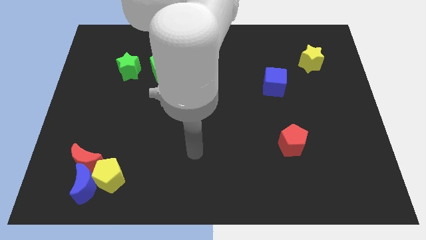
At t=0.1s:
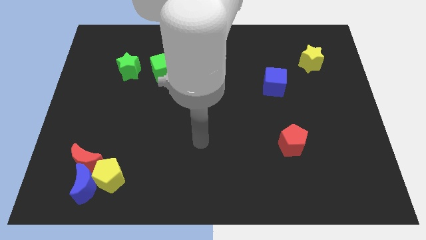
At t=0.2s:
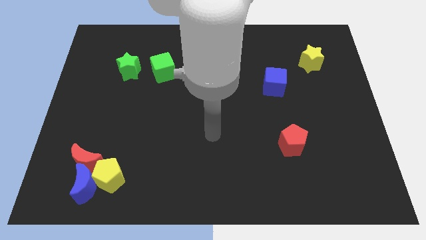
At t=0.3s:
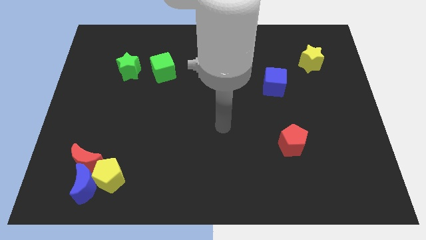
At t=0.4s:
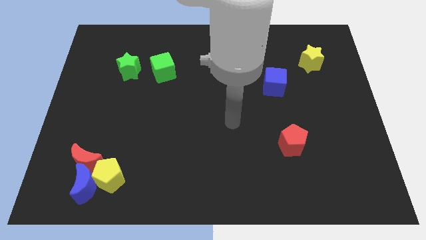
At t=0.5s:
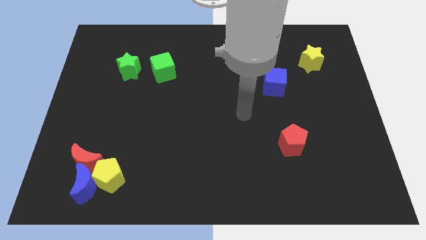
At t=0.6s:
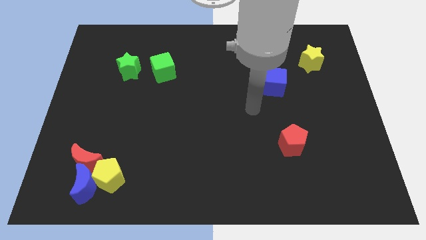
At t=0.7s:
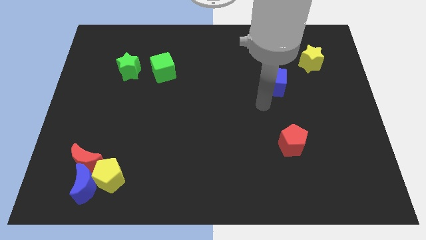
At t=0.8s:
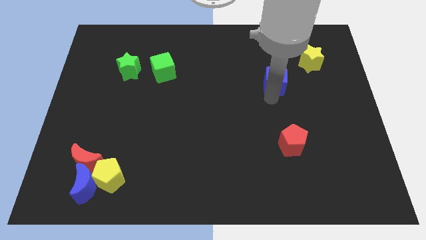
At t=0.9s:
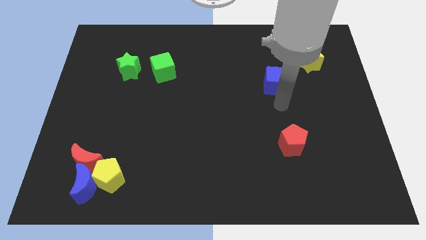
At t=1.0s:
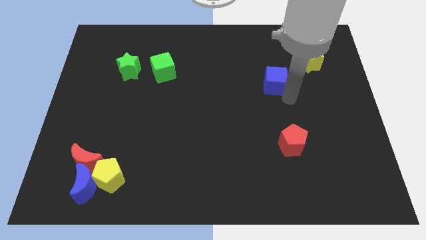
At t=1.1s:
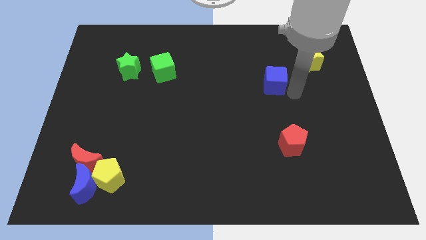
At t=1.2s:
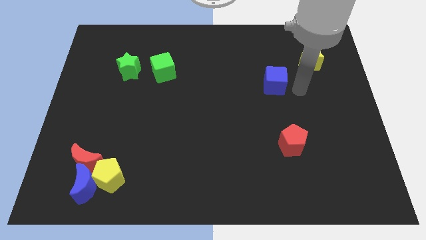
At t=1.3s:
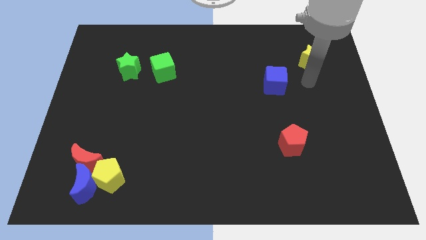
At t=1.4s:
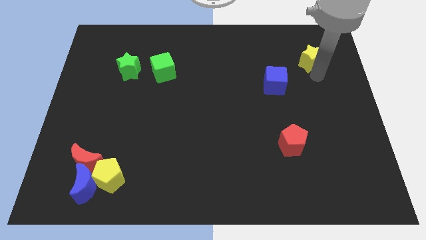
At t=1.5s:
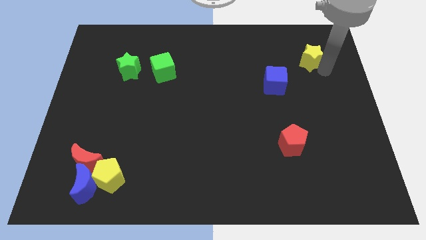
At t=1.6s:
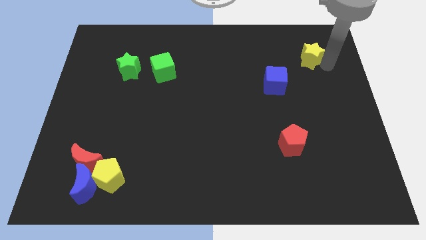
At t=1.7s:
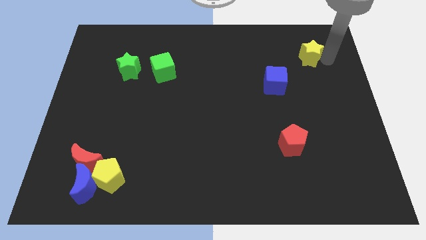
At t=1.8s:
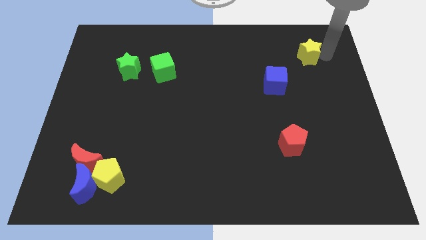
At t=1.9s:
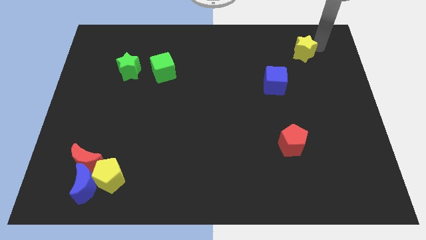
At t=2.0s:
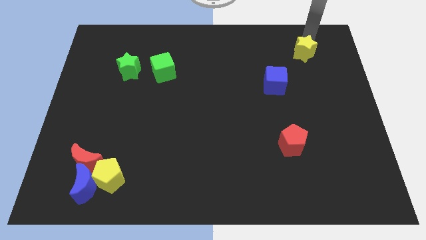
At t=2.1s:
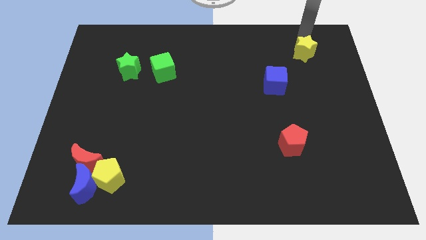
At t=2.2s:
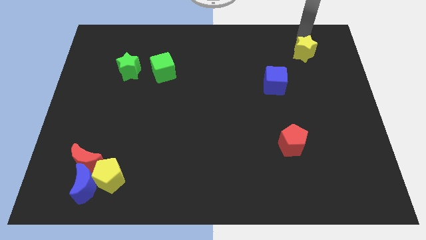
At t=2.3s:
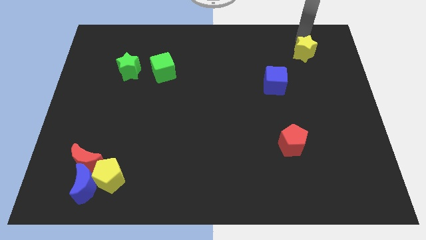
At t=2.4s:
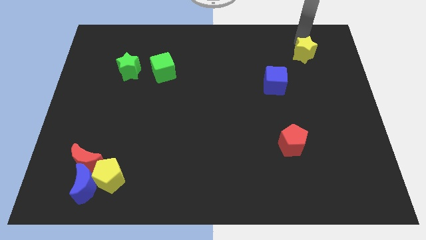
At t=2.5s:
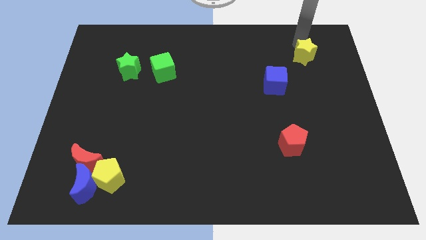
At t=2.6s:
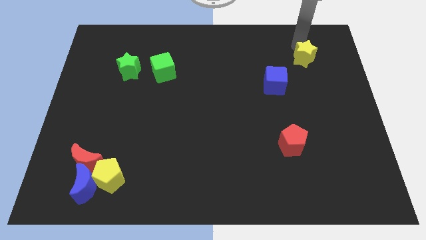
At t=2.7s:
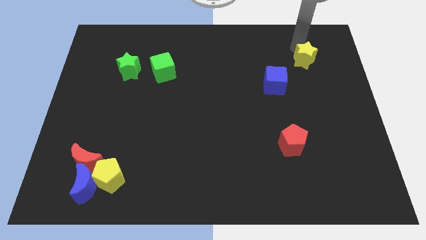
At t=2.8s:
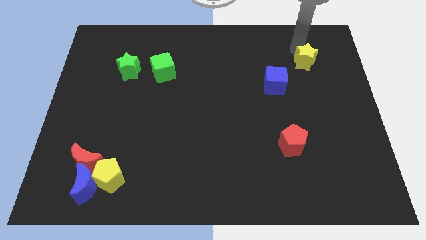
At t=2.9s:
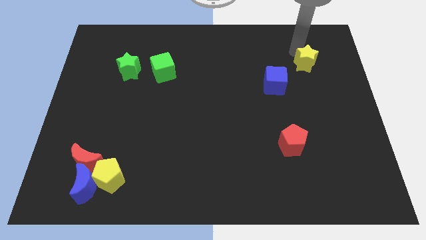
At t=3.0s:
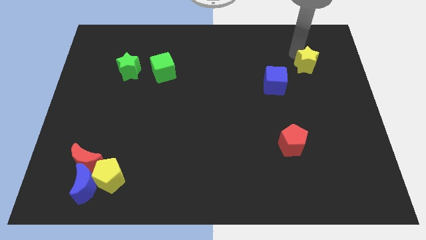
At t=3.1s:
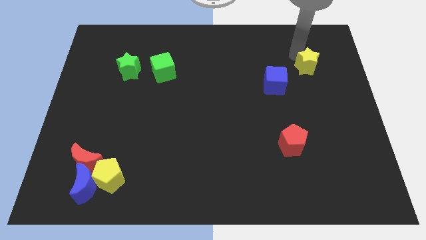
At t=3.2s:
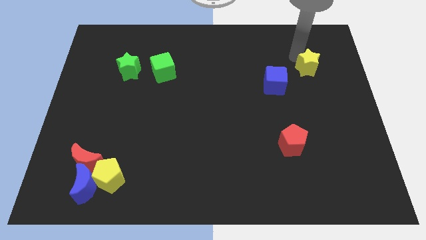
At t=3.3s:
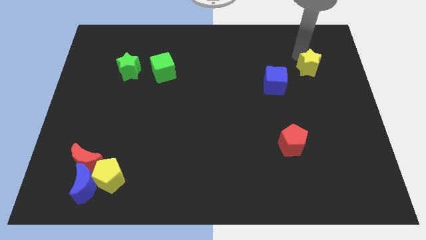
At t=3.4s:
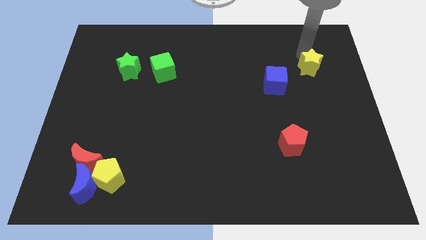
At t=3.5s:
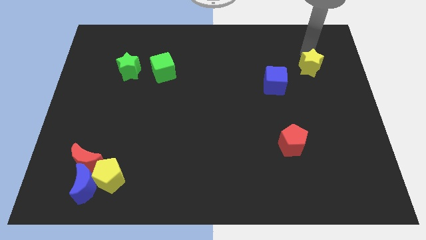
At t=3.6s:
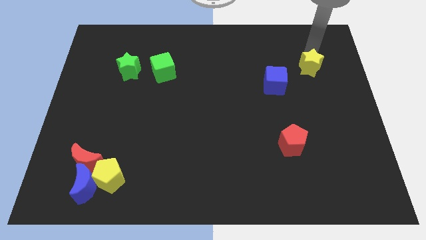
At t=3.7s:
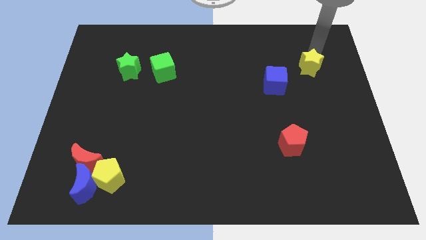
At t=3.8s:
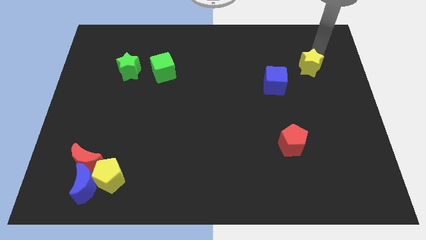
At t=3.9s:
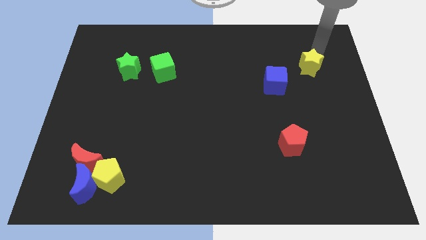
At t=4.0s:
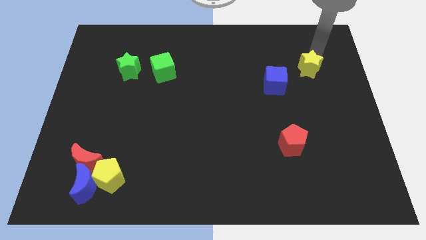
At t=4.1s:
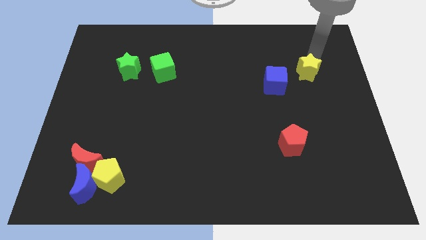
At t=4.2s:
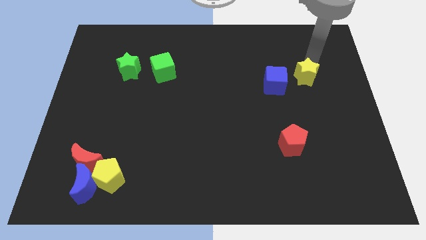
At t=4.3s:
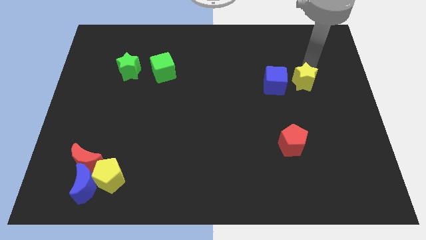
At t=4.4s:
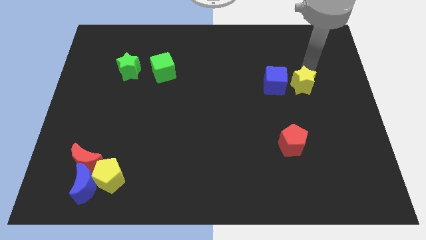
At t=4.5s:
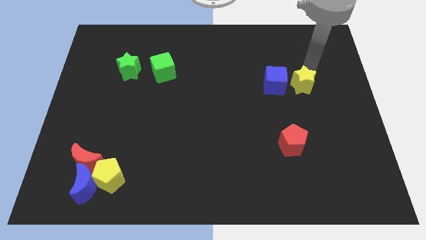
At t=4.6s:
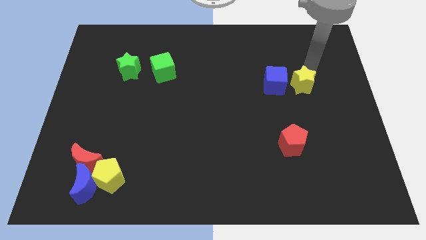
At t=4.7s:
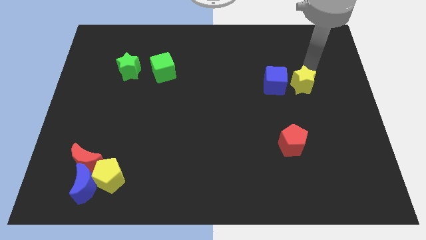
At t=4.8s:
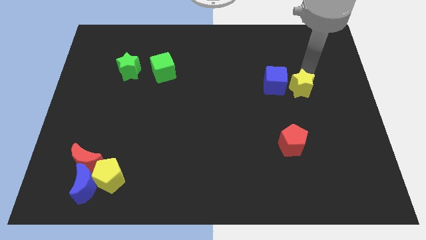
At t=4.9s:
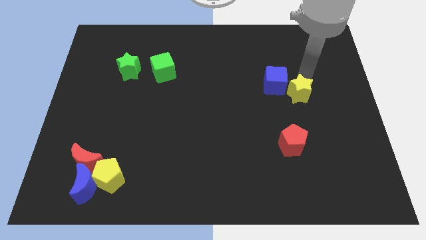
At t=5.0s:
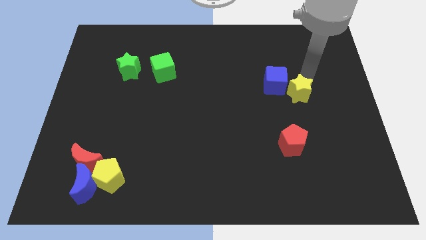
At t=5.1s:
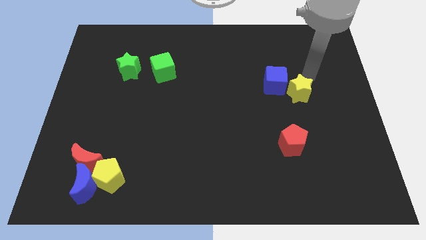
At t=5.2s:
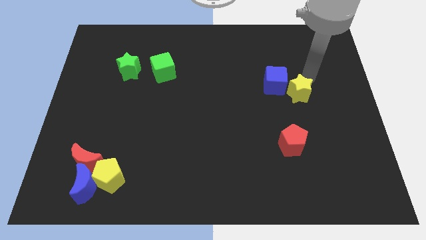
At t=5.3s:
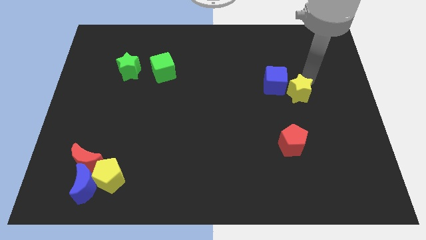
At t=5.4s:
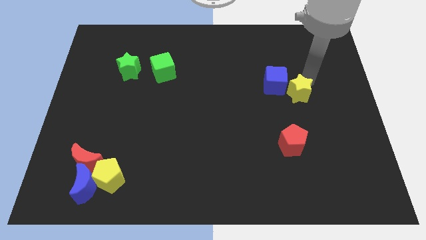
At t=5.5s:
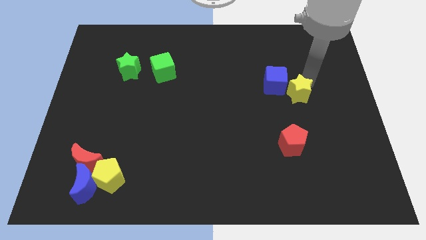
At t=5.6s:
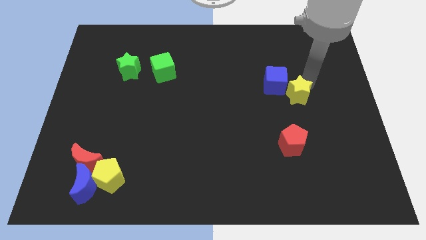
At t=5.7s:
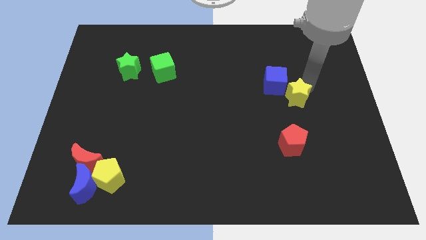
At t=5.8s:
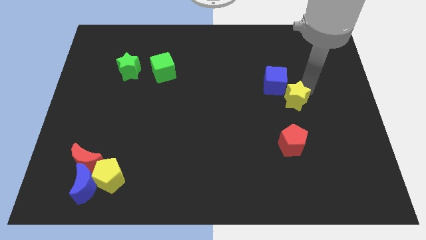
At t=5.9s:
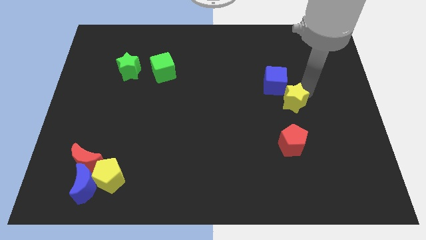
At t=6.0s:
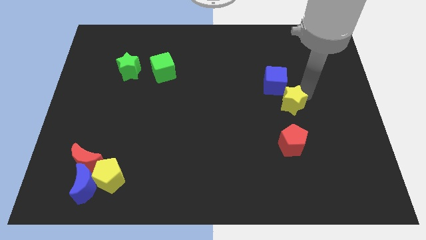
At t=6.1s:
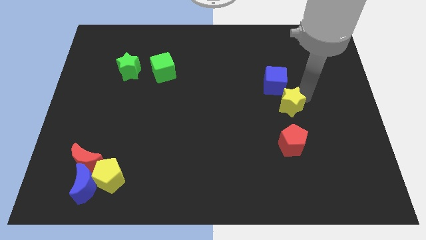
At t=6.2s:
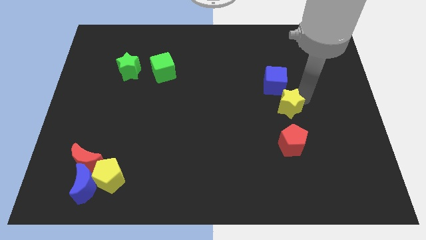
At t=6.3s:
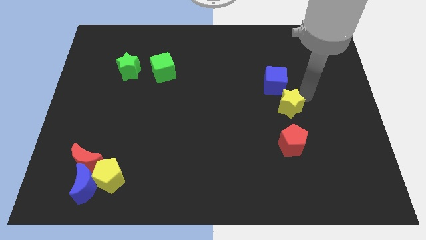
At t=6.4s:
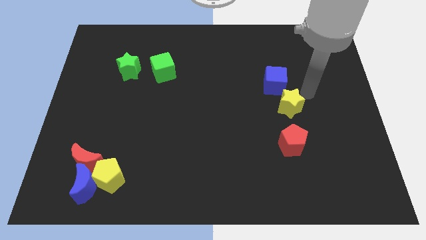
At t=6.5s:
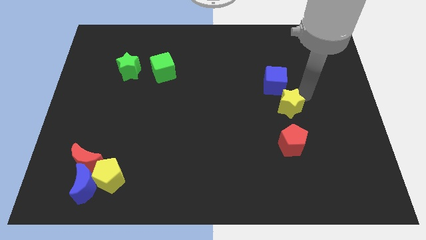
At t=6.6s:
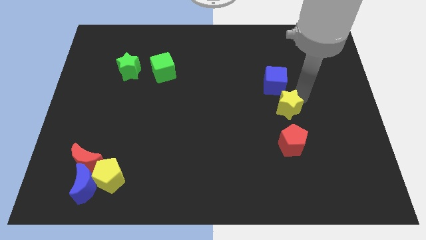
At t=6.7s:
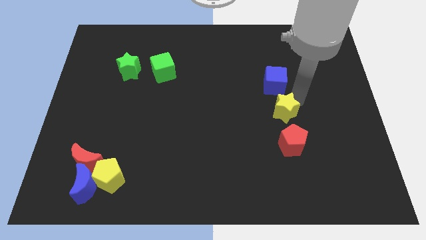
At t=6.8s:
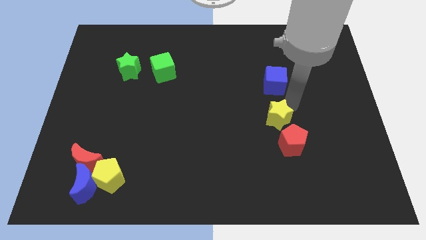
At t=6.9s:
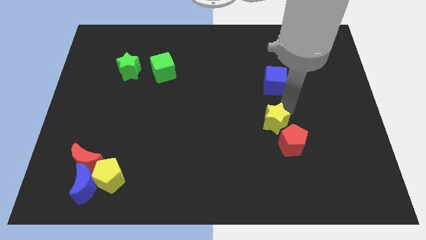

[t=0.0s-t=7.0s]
slide the yellow star down and left

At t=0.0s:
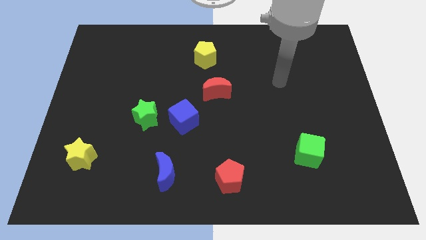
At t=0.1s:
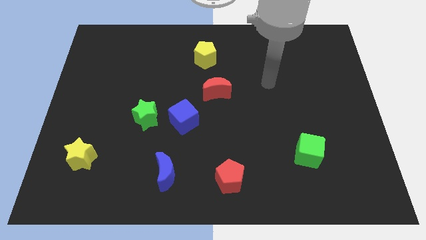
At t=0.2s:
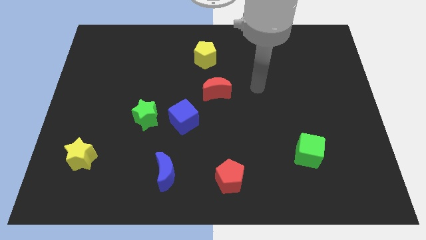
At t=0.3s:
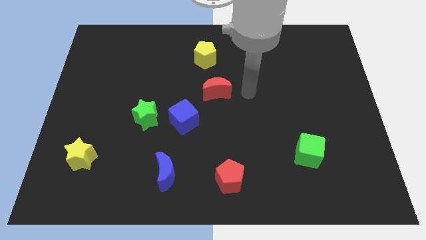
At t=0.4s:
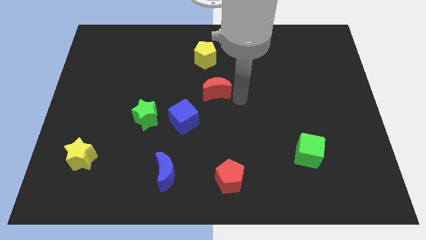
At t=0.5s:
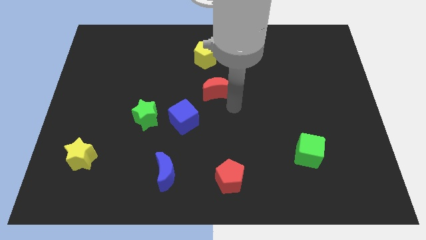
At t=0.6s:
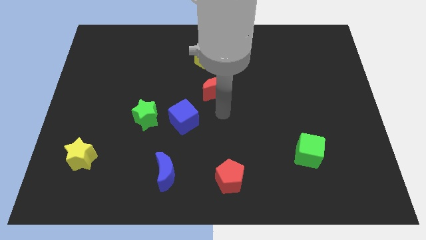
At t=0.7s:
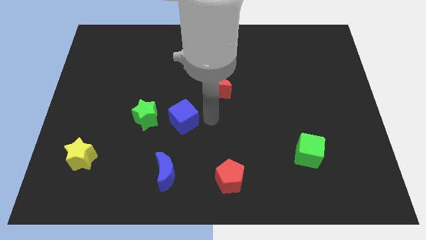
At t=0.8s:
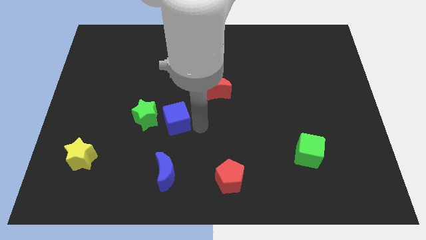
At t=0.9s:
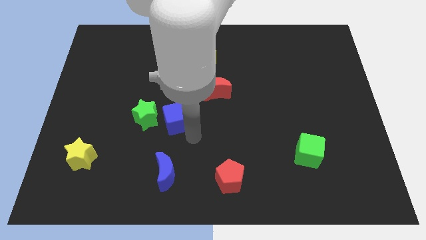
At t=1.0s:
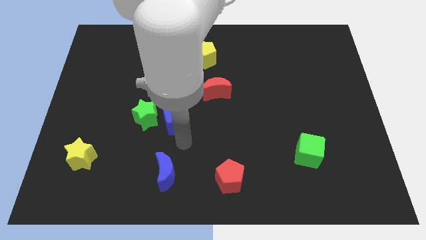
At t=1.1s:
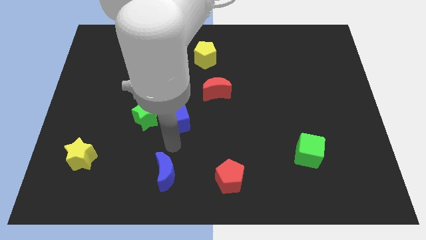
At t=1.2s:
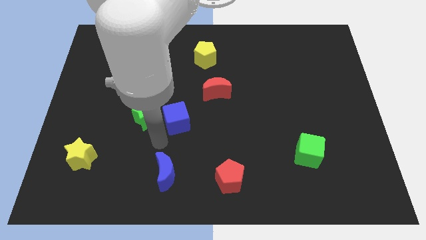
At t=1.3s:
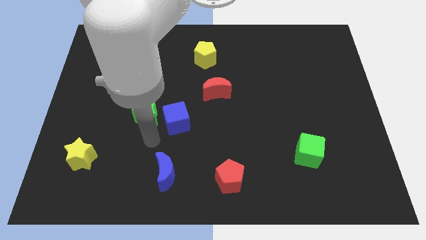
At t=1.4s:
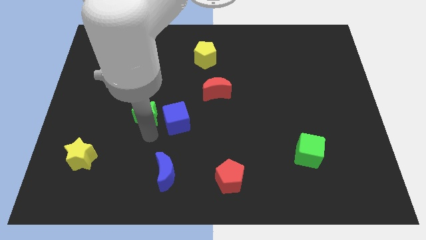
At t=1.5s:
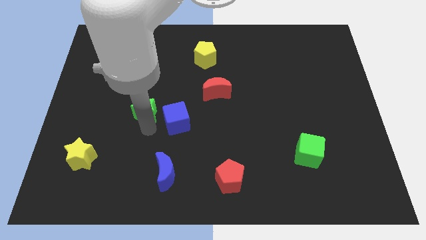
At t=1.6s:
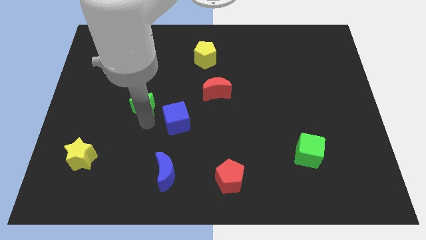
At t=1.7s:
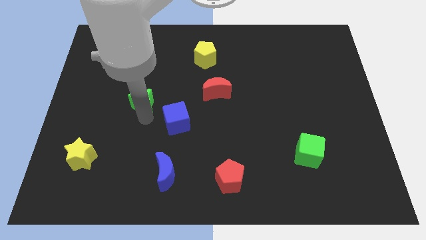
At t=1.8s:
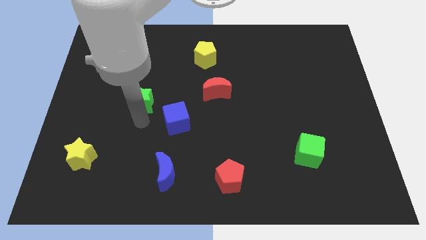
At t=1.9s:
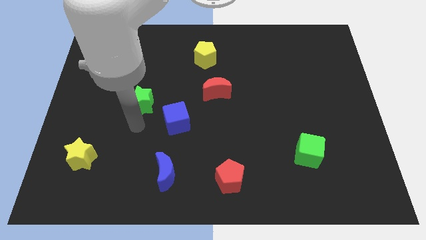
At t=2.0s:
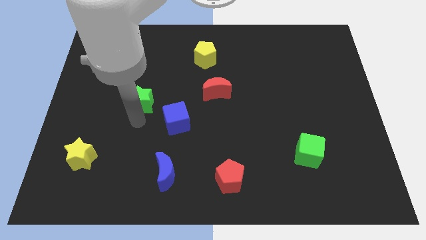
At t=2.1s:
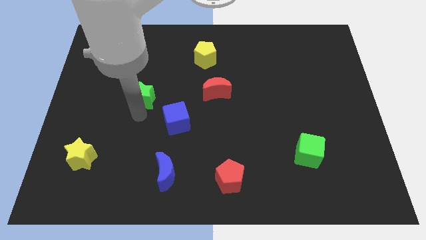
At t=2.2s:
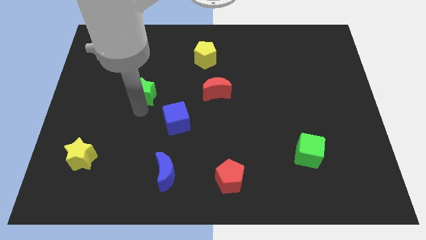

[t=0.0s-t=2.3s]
slightly move the green star upwards
